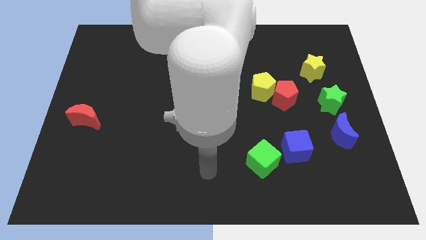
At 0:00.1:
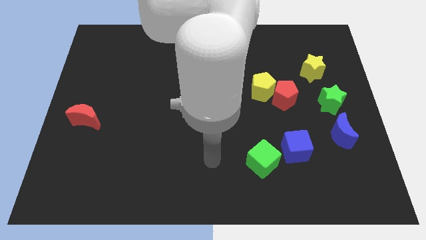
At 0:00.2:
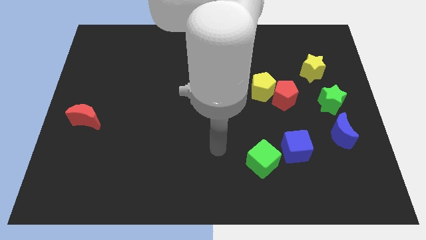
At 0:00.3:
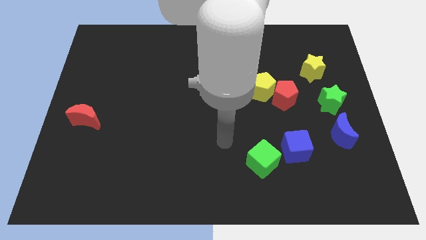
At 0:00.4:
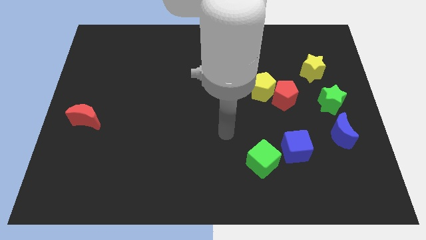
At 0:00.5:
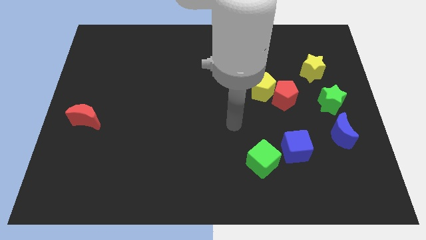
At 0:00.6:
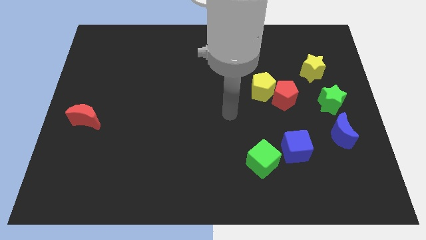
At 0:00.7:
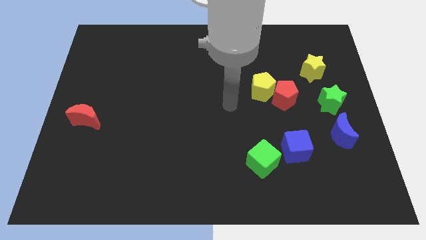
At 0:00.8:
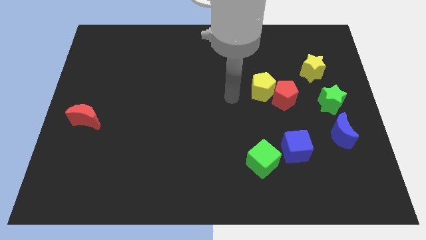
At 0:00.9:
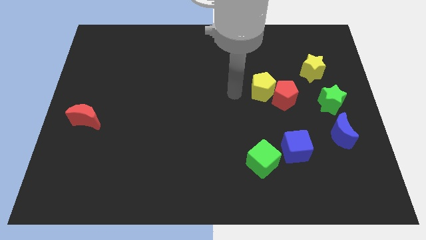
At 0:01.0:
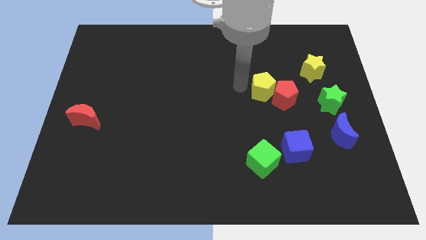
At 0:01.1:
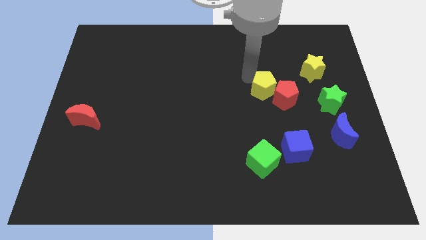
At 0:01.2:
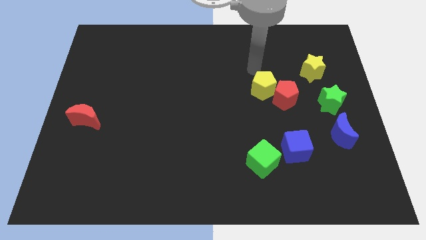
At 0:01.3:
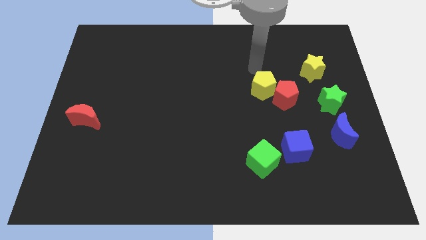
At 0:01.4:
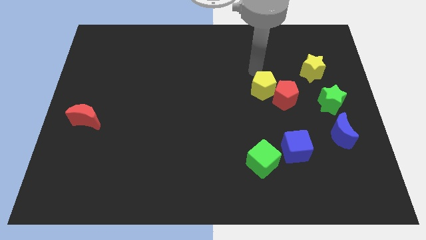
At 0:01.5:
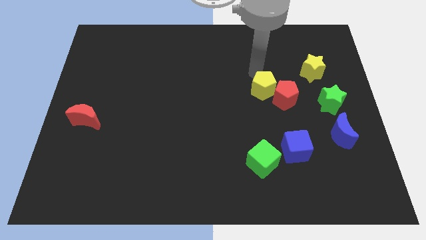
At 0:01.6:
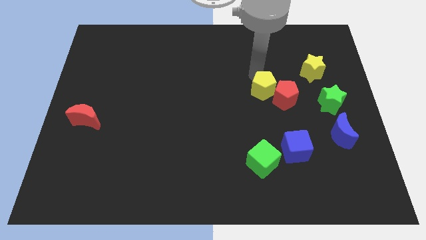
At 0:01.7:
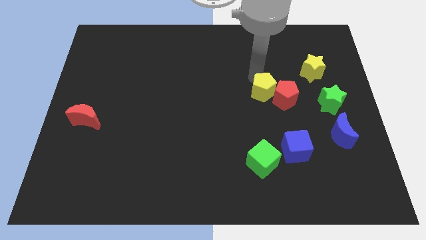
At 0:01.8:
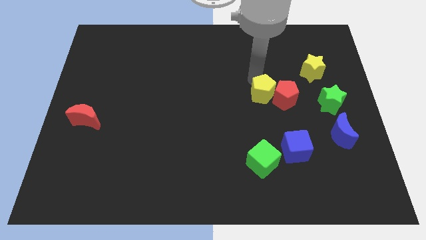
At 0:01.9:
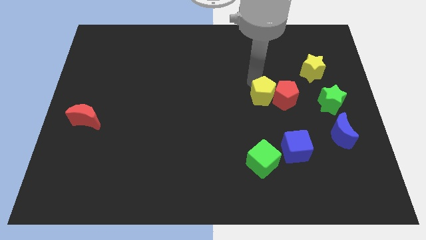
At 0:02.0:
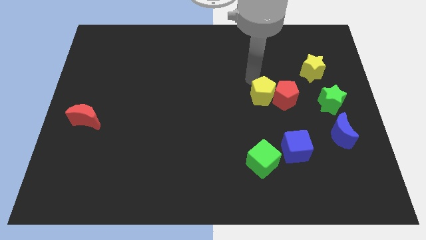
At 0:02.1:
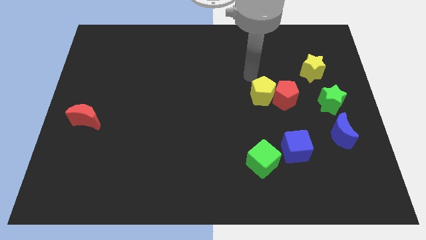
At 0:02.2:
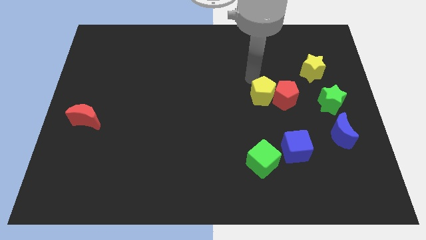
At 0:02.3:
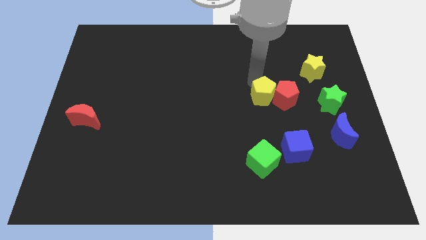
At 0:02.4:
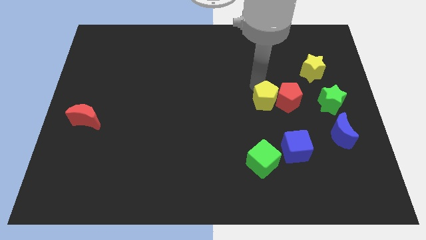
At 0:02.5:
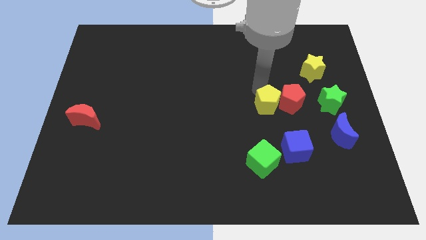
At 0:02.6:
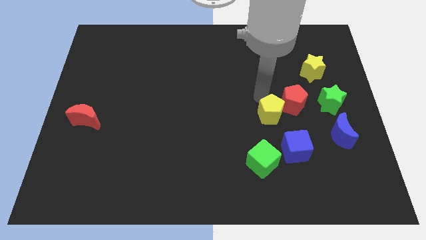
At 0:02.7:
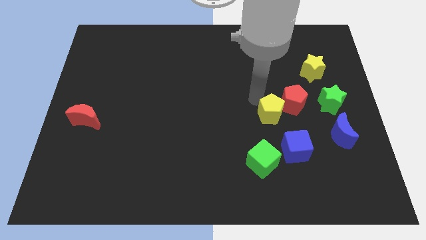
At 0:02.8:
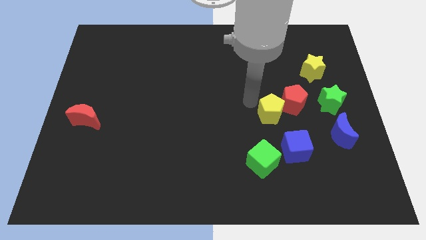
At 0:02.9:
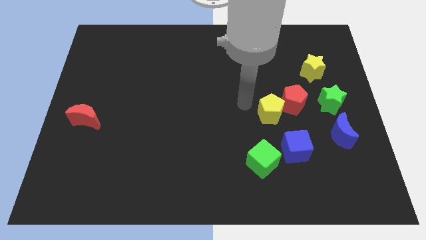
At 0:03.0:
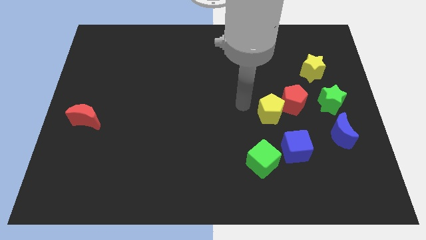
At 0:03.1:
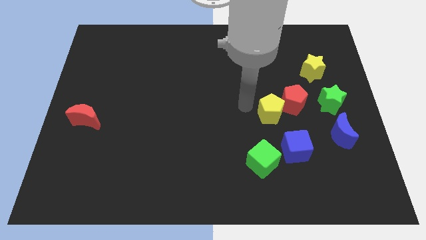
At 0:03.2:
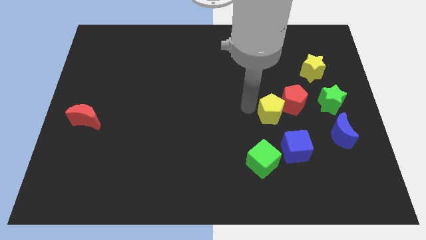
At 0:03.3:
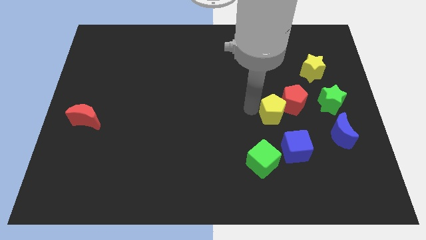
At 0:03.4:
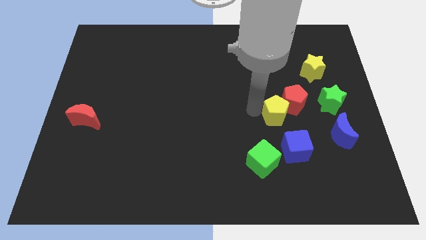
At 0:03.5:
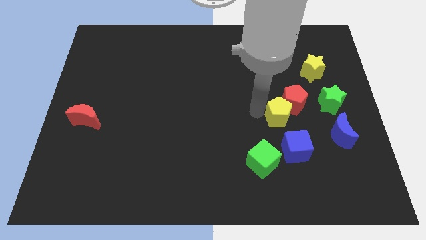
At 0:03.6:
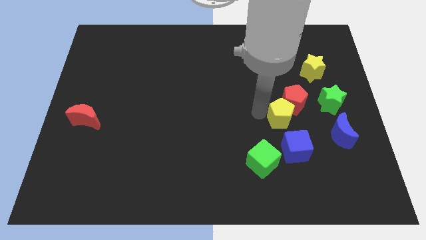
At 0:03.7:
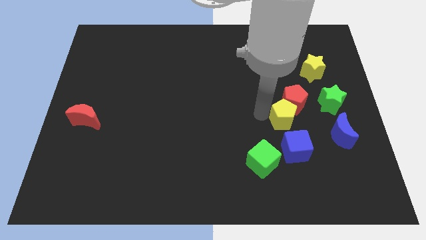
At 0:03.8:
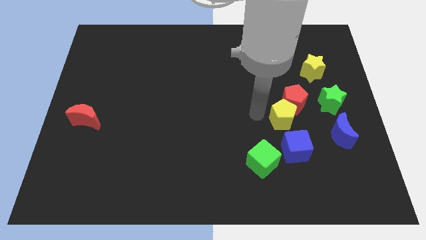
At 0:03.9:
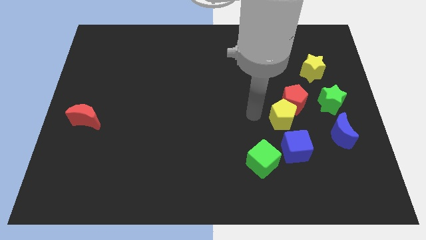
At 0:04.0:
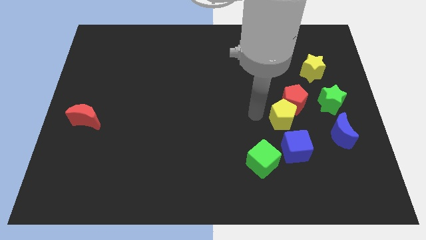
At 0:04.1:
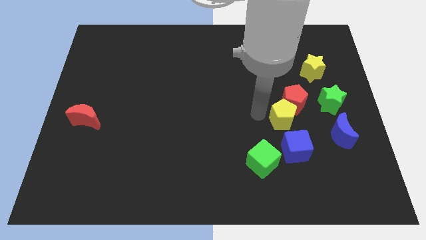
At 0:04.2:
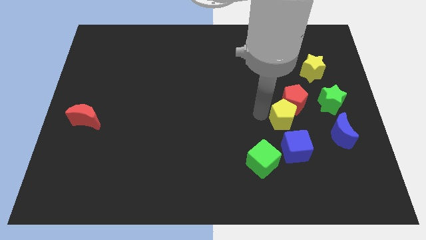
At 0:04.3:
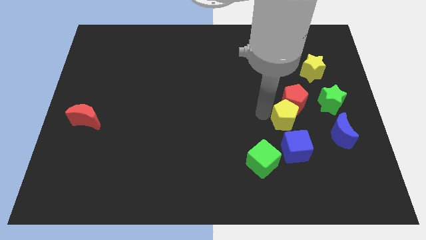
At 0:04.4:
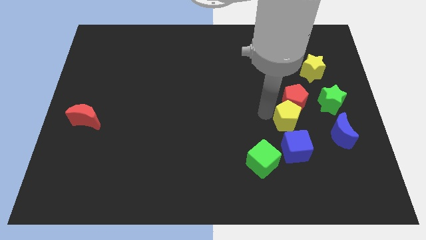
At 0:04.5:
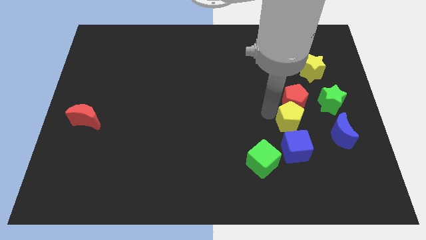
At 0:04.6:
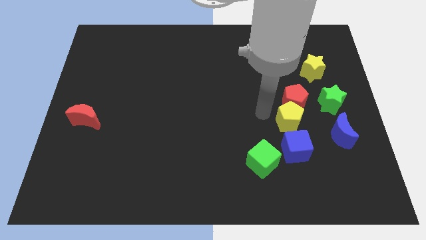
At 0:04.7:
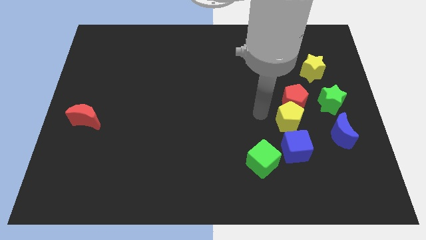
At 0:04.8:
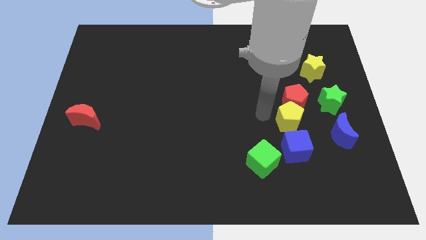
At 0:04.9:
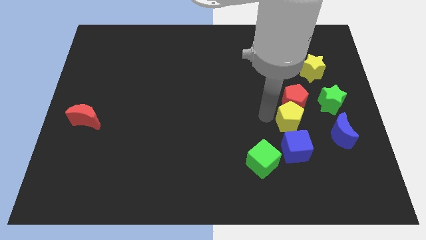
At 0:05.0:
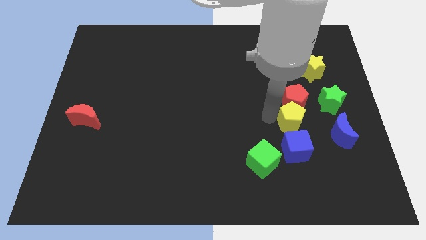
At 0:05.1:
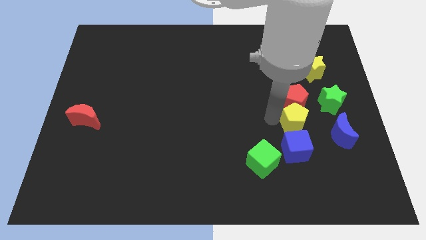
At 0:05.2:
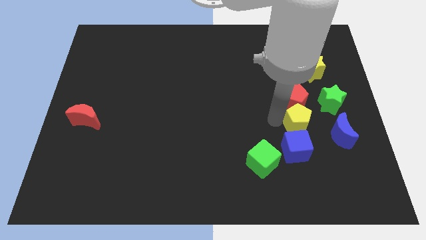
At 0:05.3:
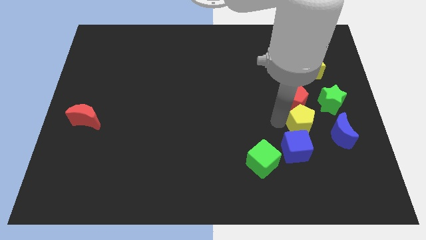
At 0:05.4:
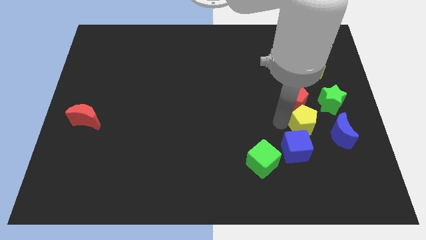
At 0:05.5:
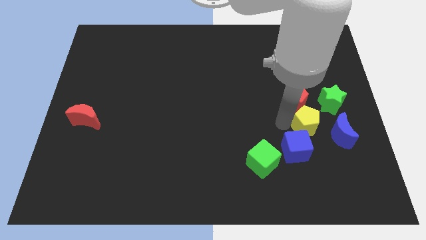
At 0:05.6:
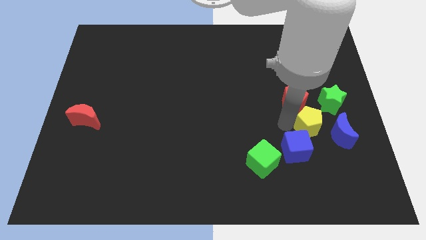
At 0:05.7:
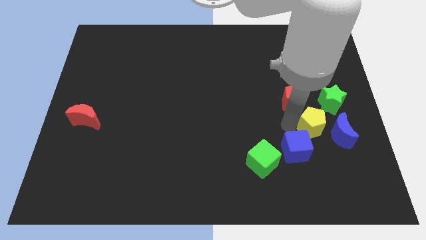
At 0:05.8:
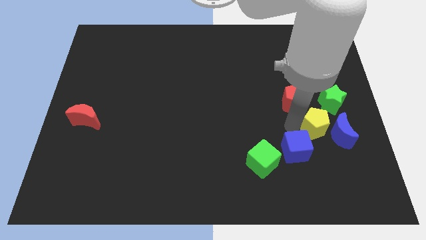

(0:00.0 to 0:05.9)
put the yellow pentagon next to the blue moon
